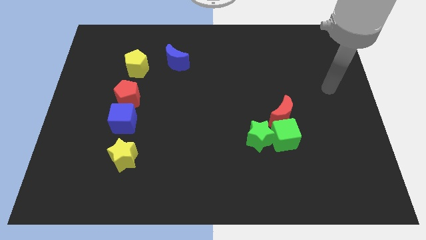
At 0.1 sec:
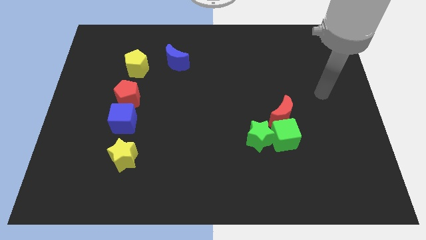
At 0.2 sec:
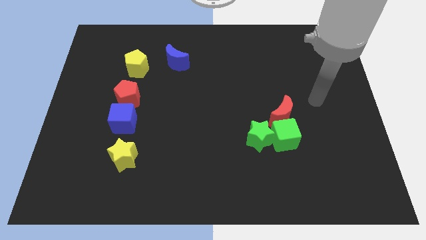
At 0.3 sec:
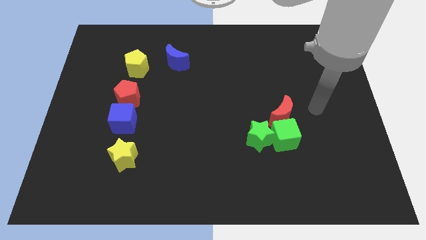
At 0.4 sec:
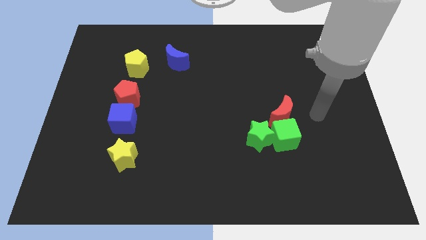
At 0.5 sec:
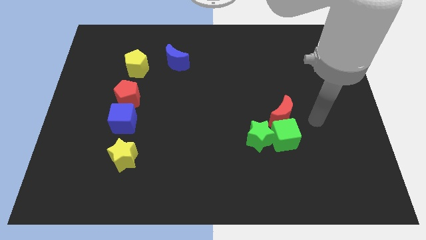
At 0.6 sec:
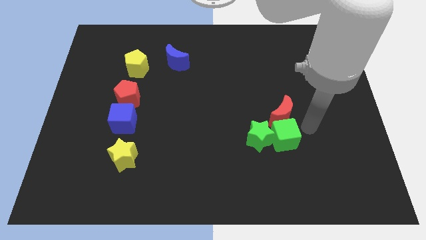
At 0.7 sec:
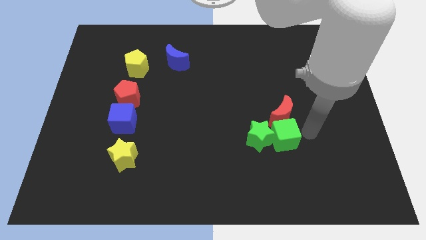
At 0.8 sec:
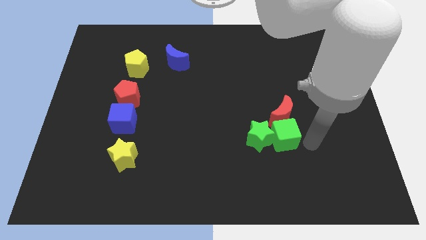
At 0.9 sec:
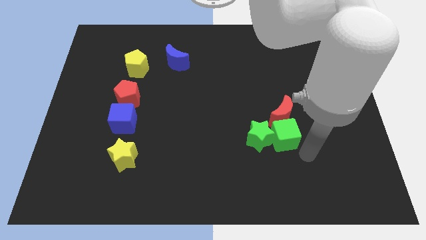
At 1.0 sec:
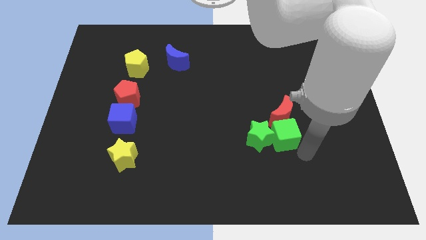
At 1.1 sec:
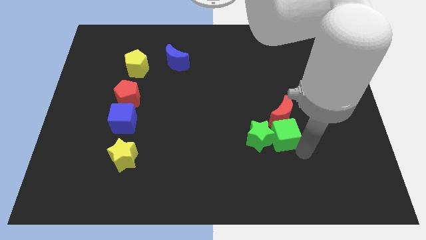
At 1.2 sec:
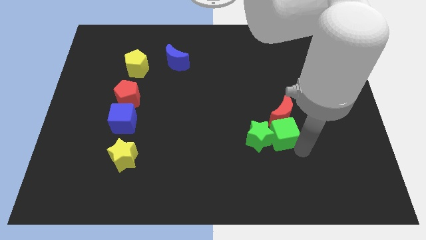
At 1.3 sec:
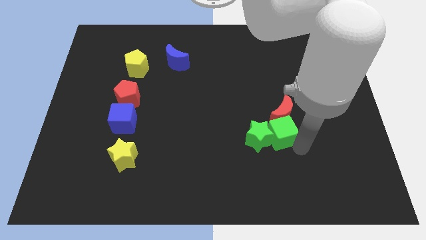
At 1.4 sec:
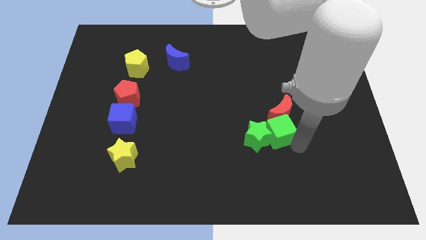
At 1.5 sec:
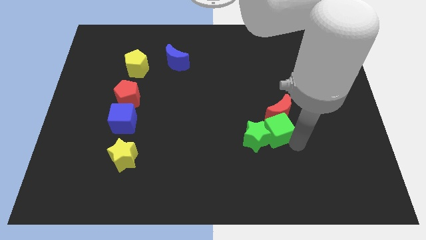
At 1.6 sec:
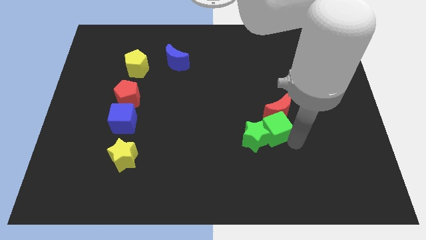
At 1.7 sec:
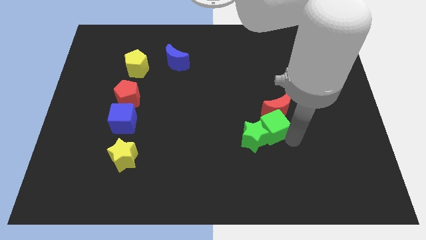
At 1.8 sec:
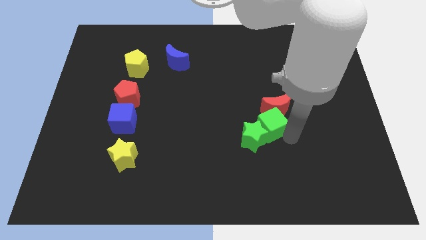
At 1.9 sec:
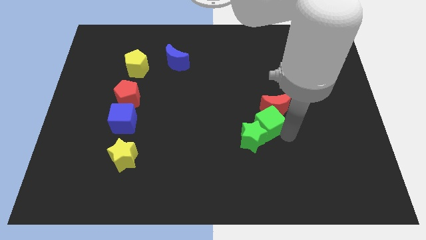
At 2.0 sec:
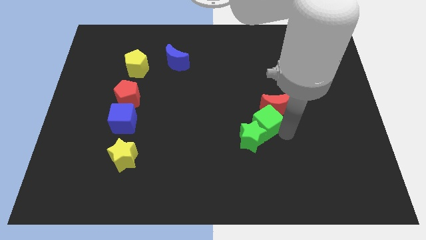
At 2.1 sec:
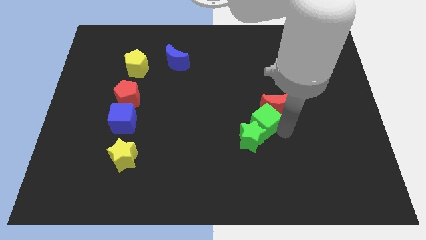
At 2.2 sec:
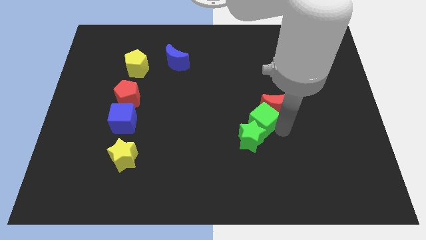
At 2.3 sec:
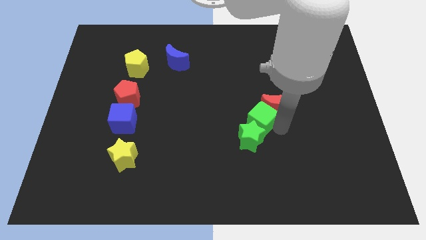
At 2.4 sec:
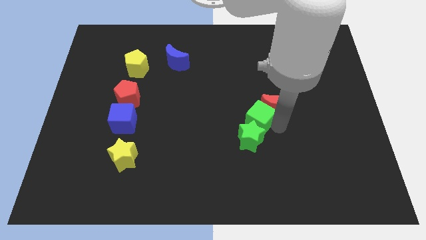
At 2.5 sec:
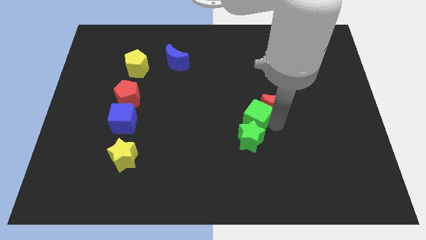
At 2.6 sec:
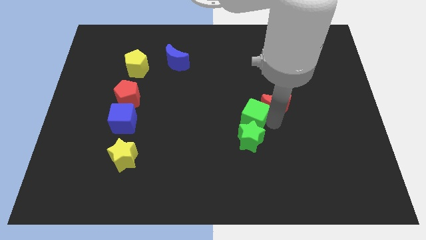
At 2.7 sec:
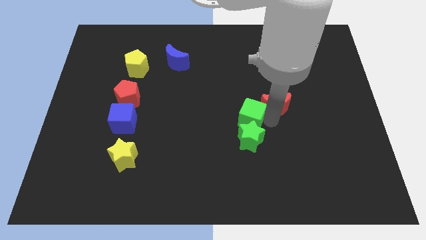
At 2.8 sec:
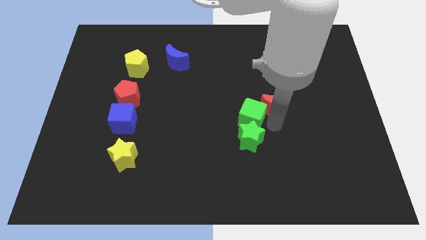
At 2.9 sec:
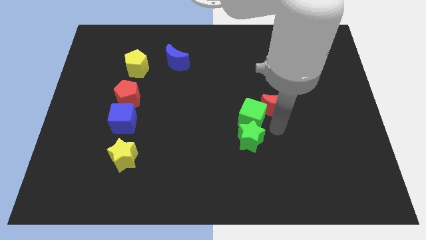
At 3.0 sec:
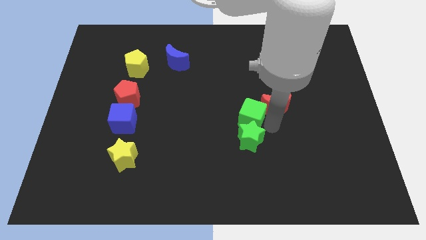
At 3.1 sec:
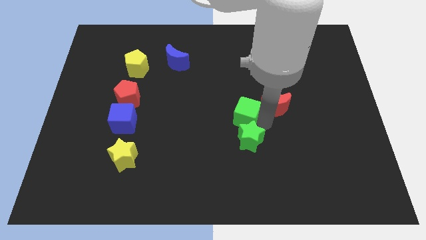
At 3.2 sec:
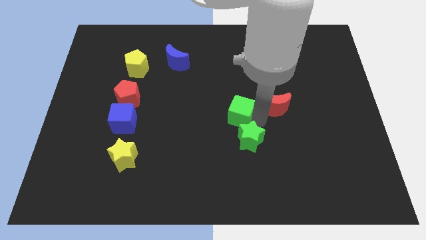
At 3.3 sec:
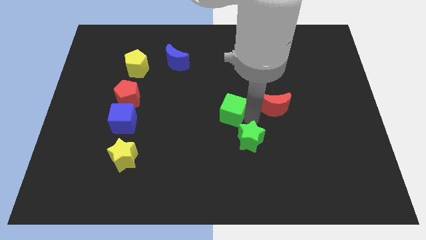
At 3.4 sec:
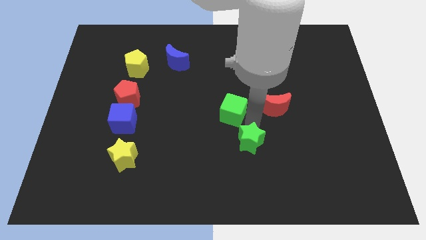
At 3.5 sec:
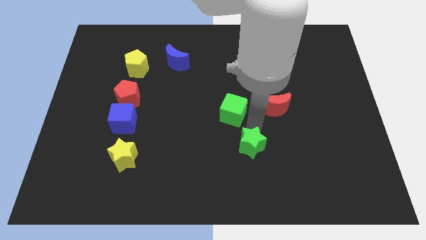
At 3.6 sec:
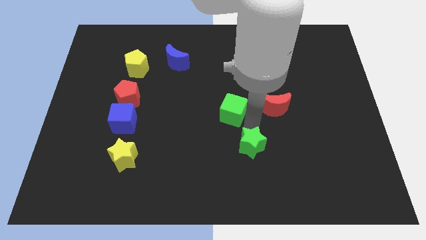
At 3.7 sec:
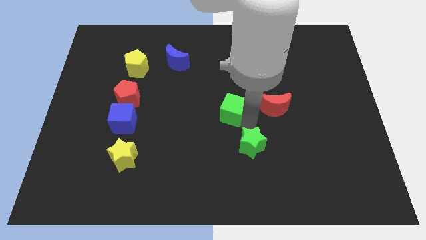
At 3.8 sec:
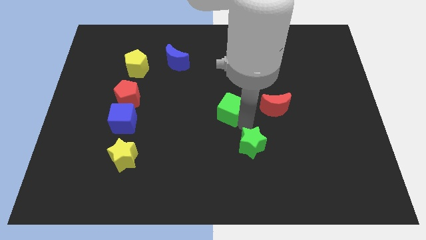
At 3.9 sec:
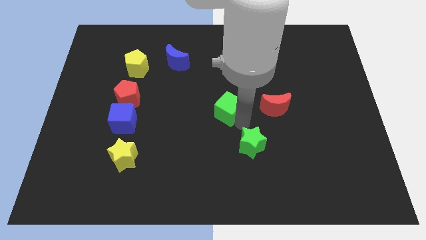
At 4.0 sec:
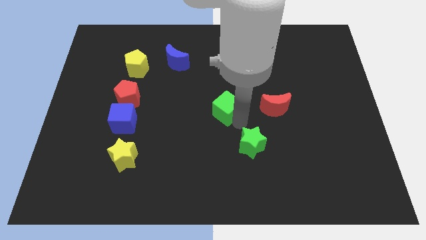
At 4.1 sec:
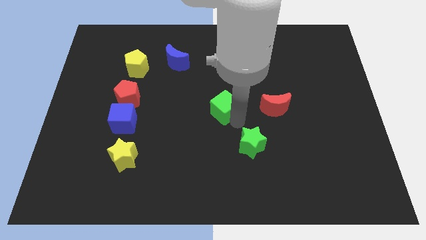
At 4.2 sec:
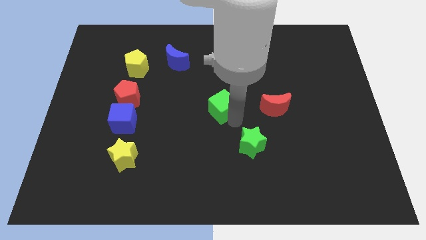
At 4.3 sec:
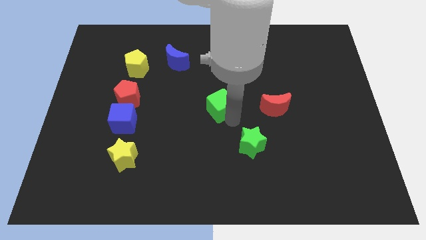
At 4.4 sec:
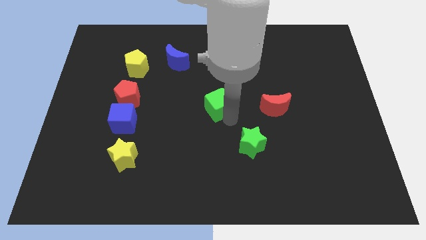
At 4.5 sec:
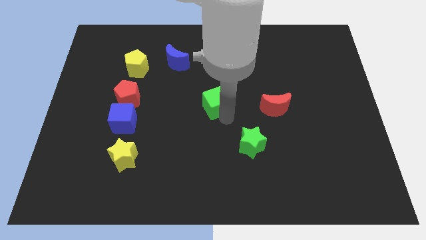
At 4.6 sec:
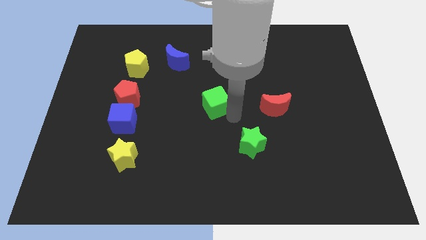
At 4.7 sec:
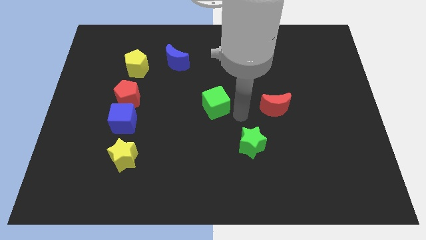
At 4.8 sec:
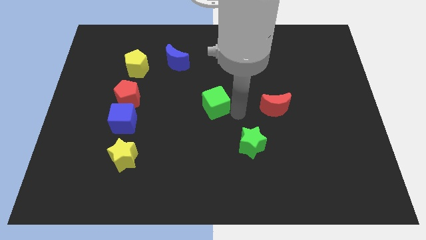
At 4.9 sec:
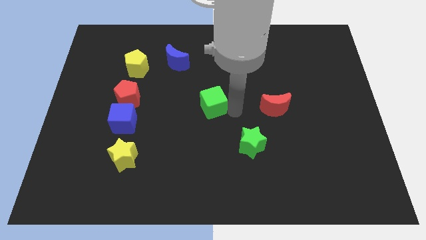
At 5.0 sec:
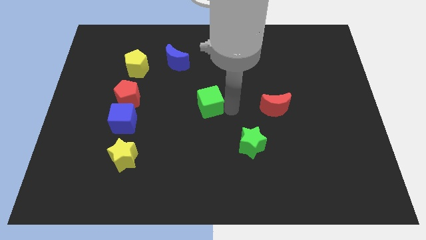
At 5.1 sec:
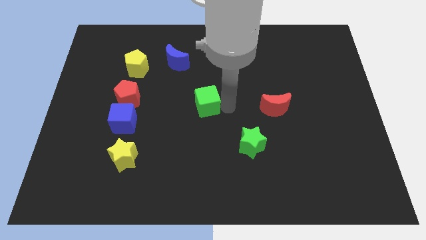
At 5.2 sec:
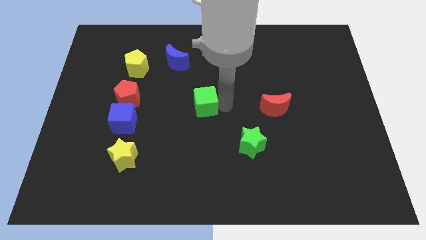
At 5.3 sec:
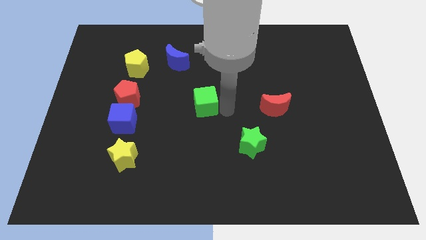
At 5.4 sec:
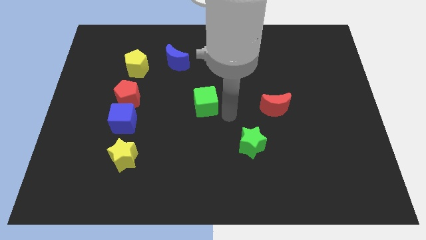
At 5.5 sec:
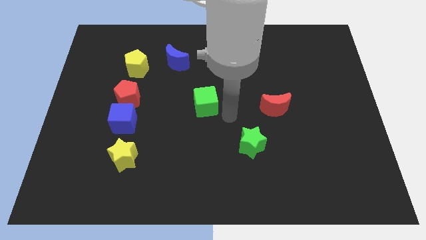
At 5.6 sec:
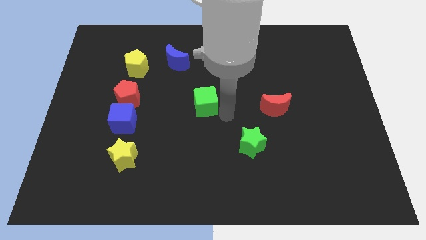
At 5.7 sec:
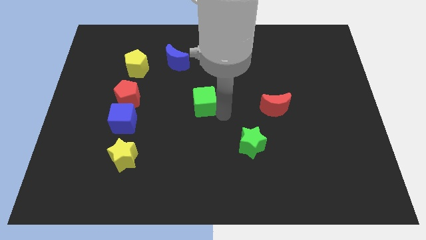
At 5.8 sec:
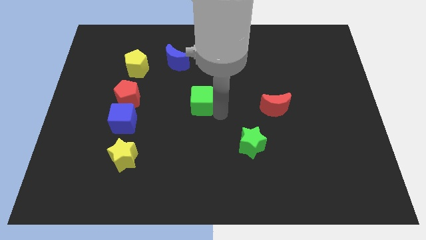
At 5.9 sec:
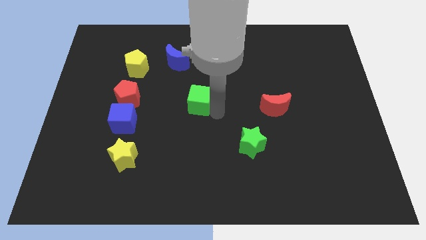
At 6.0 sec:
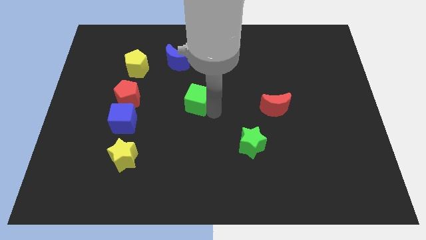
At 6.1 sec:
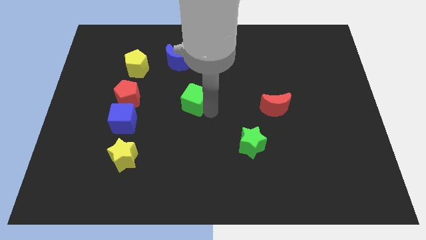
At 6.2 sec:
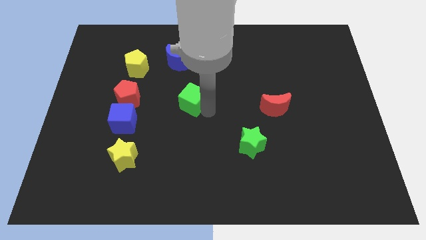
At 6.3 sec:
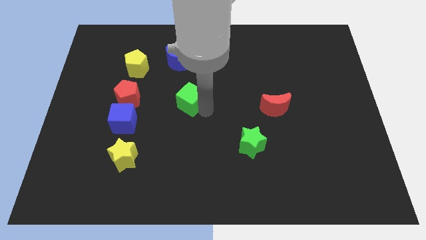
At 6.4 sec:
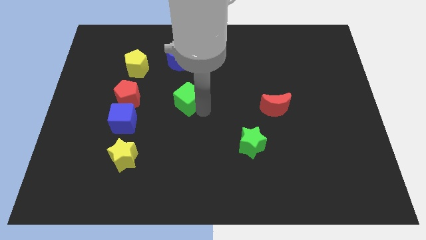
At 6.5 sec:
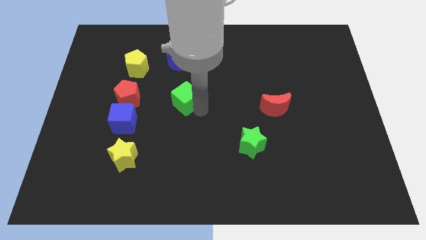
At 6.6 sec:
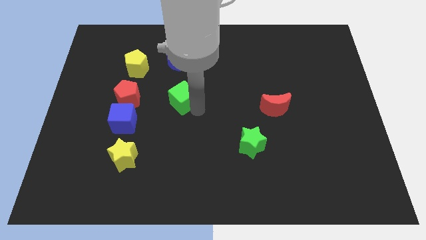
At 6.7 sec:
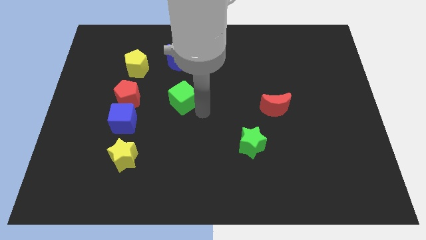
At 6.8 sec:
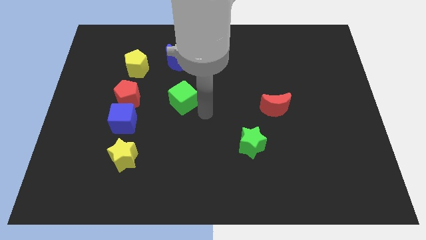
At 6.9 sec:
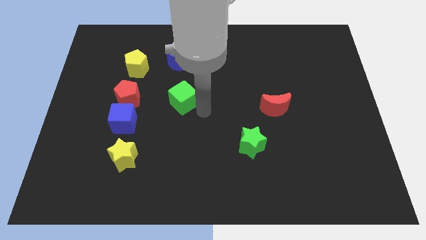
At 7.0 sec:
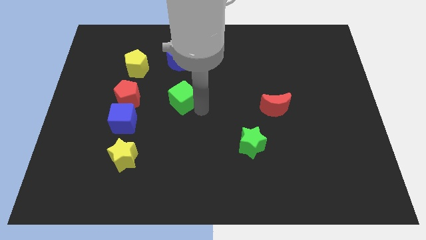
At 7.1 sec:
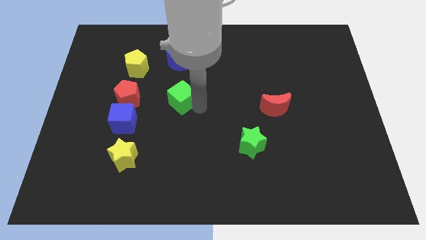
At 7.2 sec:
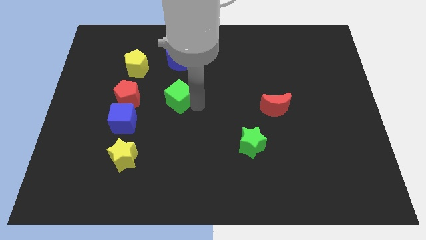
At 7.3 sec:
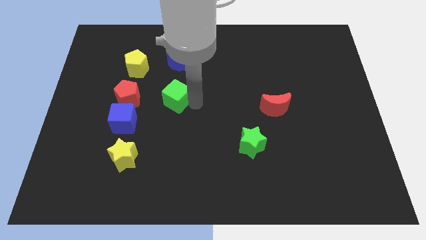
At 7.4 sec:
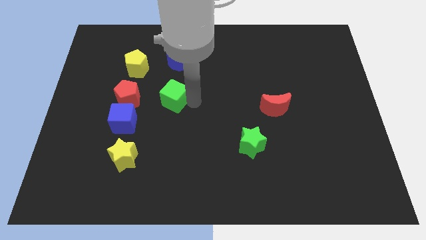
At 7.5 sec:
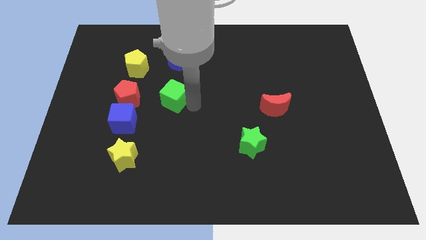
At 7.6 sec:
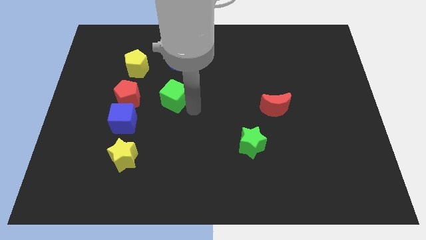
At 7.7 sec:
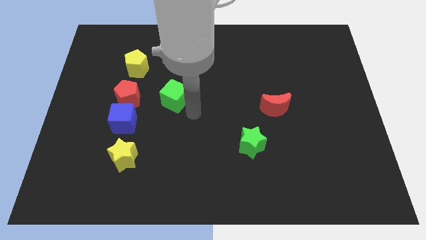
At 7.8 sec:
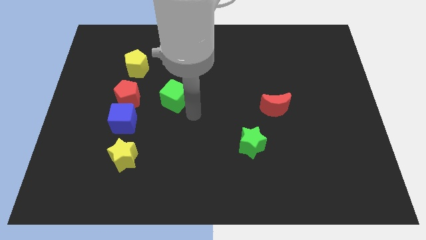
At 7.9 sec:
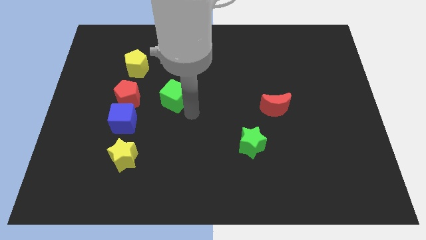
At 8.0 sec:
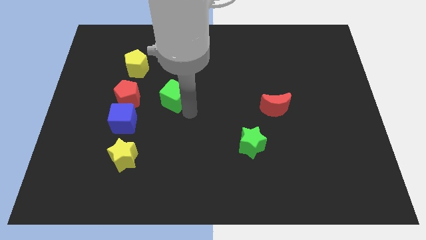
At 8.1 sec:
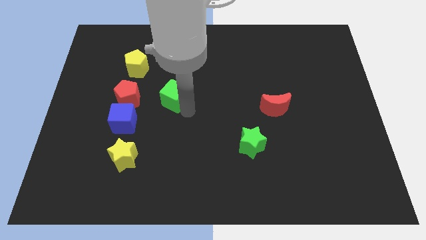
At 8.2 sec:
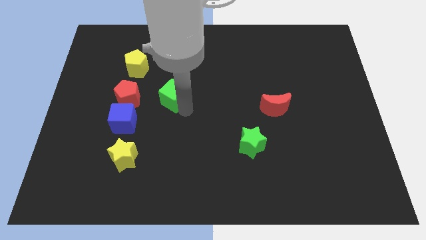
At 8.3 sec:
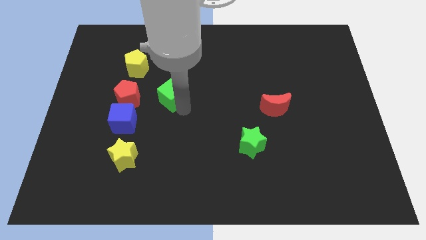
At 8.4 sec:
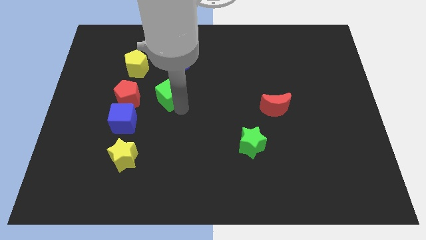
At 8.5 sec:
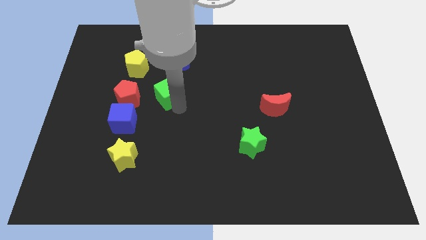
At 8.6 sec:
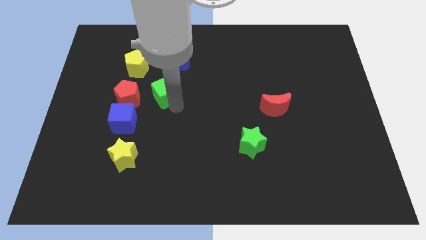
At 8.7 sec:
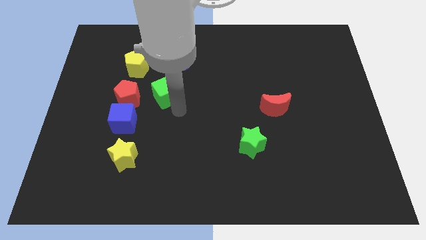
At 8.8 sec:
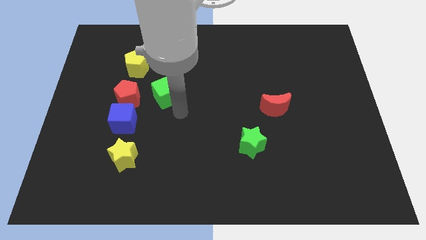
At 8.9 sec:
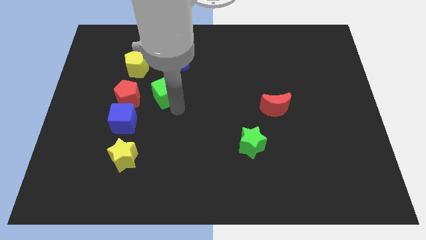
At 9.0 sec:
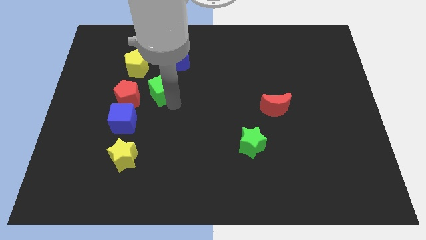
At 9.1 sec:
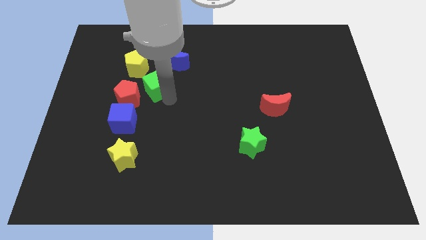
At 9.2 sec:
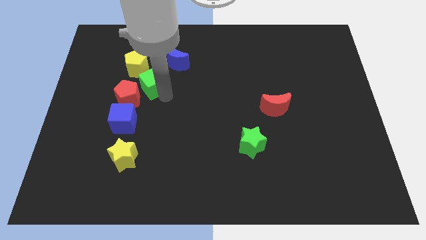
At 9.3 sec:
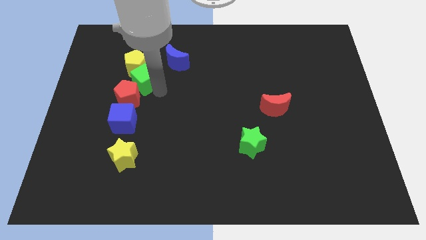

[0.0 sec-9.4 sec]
put the green cube towards the yellow pentagon
